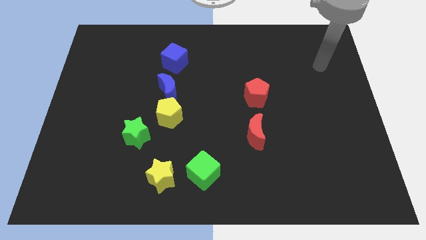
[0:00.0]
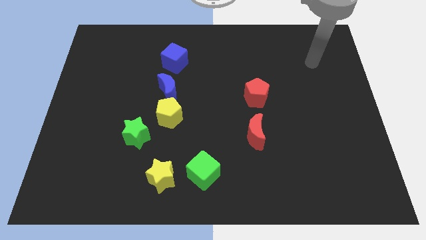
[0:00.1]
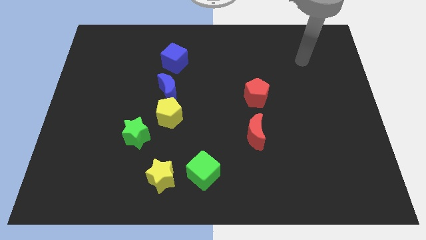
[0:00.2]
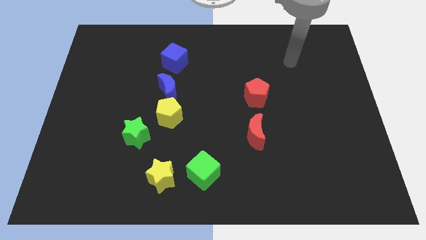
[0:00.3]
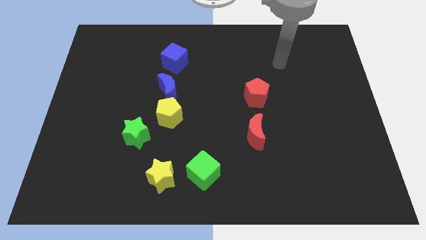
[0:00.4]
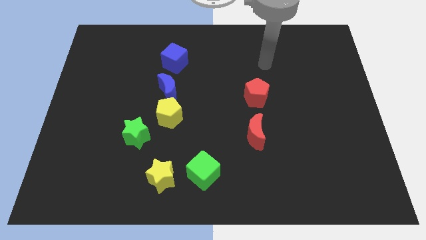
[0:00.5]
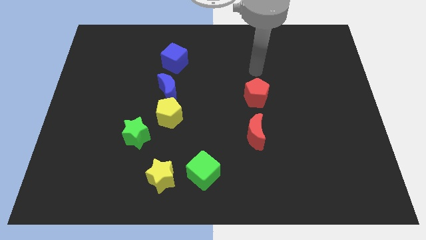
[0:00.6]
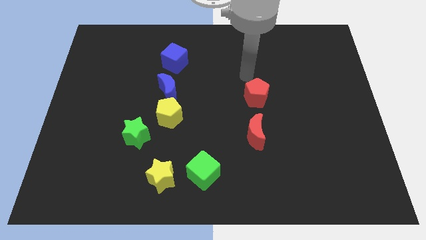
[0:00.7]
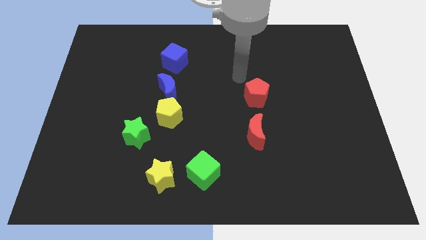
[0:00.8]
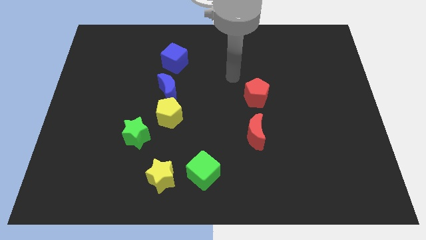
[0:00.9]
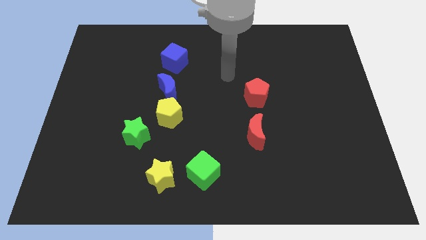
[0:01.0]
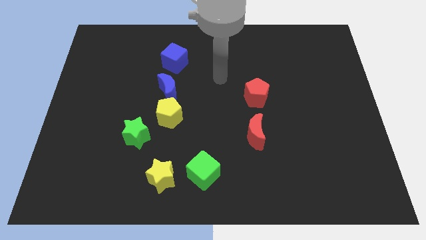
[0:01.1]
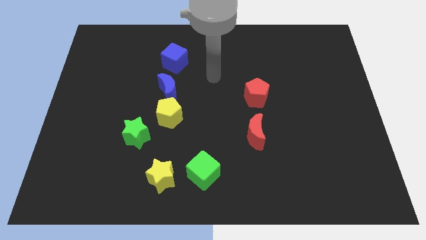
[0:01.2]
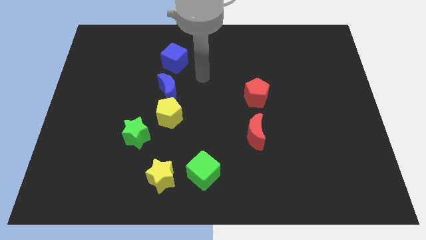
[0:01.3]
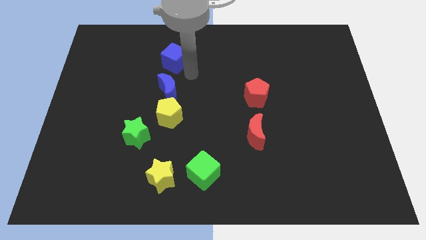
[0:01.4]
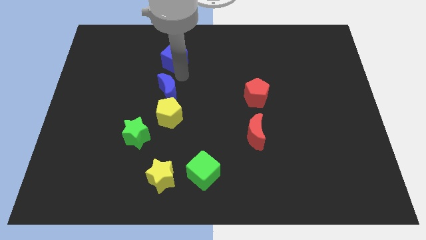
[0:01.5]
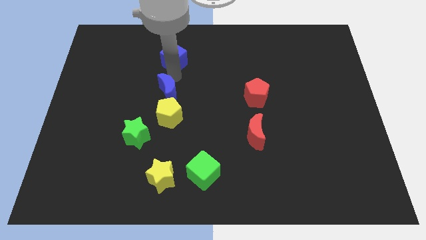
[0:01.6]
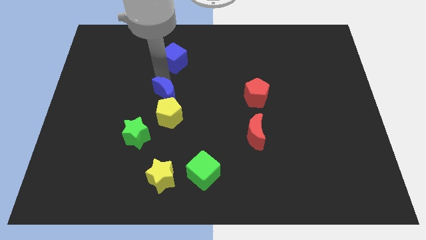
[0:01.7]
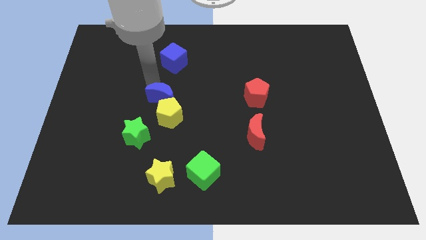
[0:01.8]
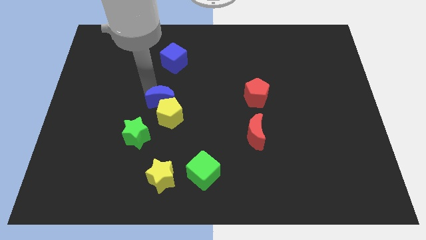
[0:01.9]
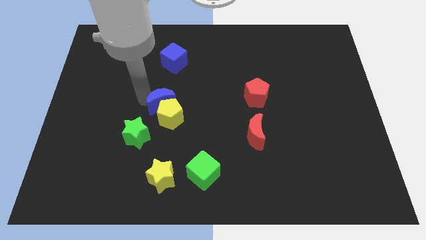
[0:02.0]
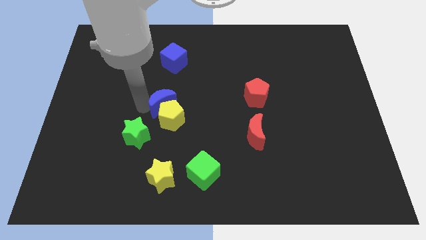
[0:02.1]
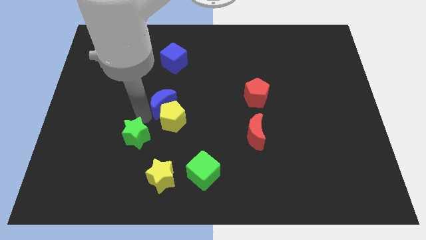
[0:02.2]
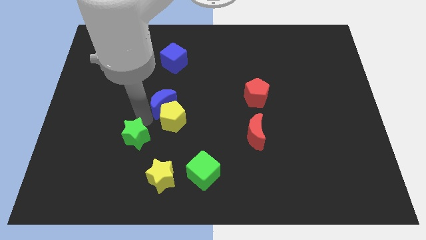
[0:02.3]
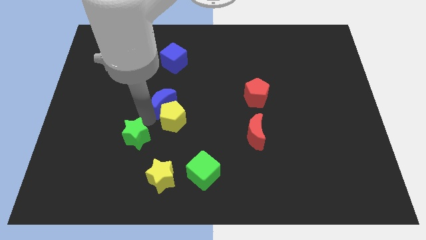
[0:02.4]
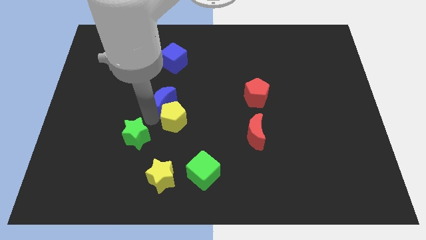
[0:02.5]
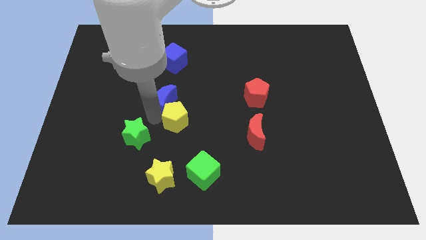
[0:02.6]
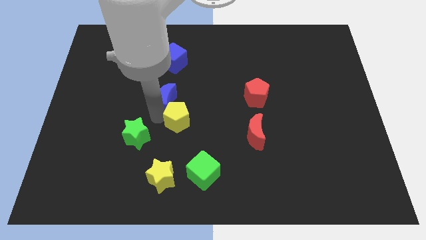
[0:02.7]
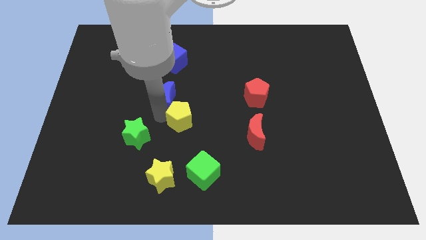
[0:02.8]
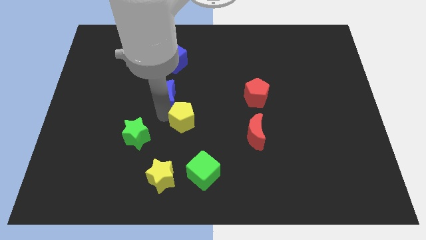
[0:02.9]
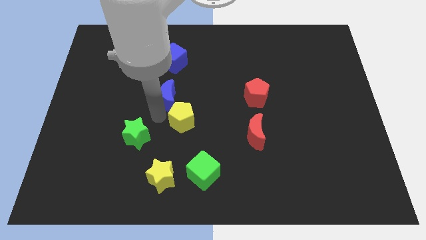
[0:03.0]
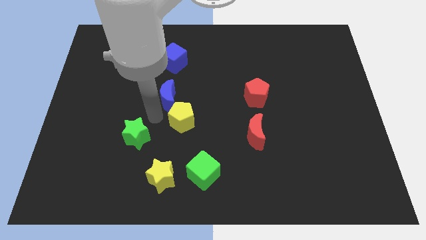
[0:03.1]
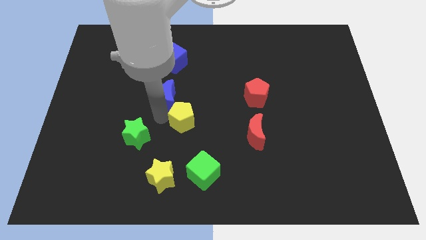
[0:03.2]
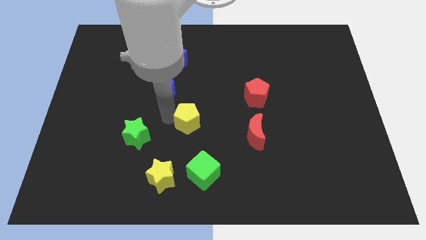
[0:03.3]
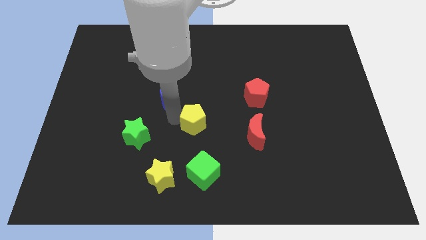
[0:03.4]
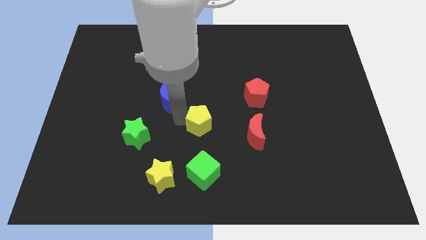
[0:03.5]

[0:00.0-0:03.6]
pull the yellow pentagon apart from the blue moon and green star

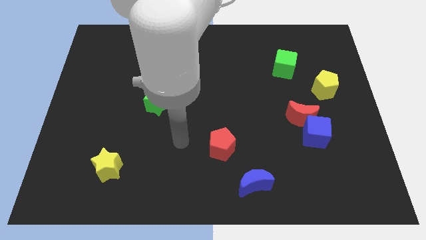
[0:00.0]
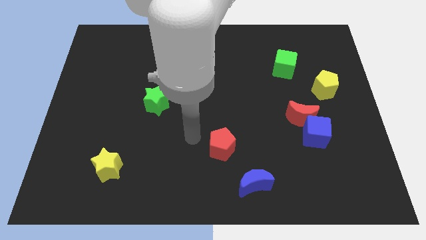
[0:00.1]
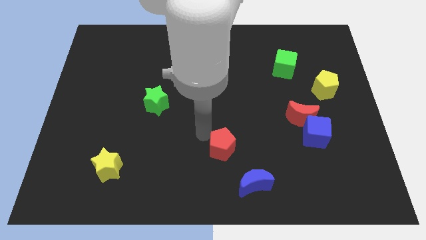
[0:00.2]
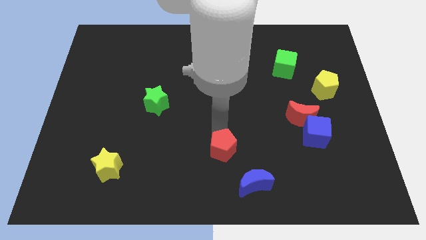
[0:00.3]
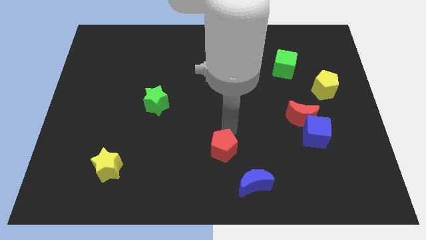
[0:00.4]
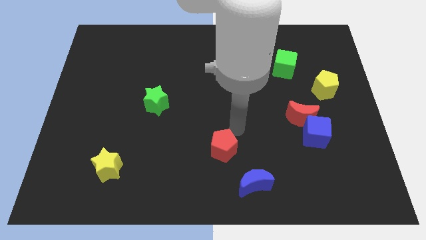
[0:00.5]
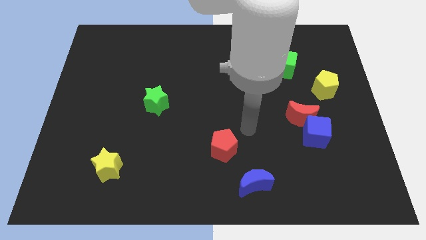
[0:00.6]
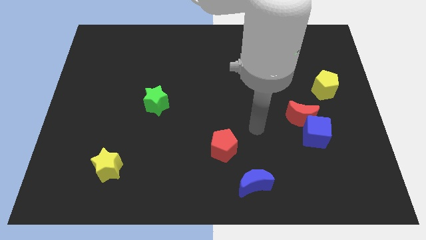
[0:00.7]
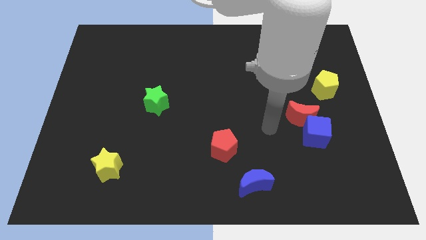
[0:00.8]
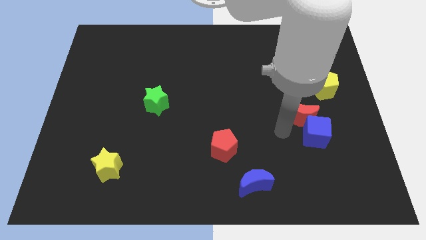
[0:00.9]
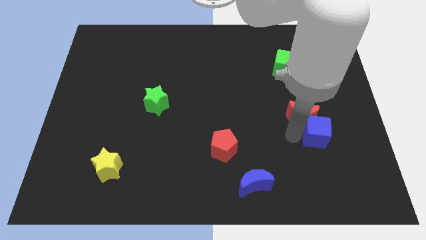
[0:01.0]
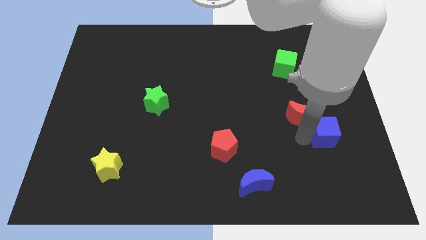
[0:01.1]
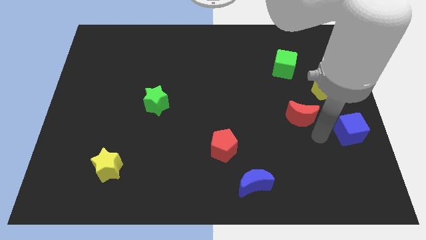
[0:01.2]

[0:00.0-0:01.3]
move the red moon away from the blue cube

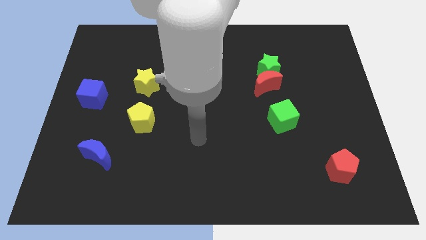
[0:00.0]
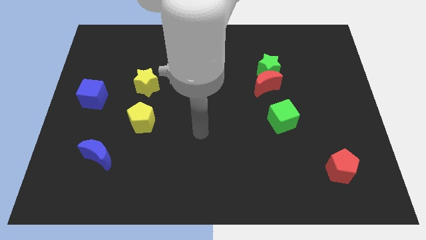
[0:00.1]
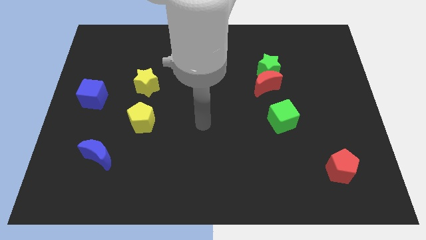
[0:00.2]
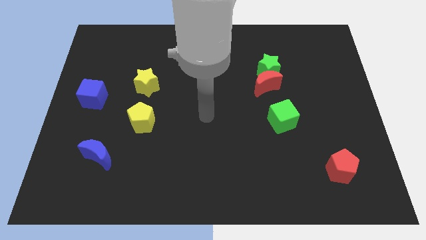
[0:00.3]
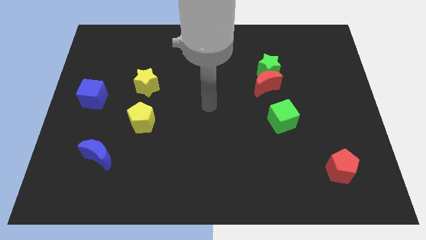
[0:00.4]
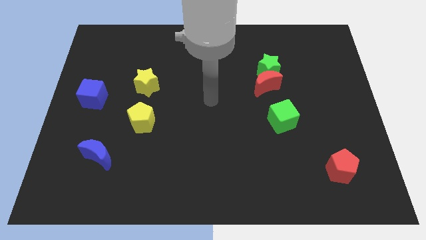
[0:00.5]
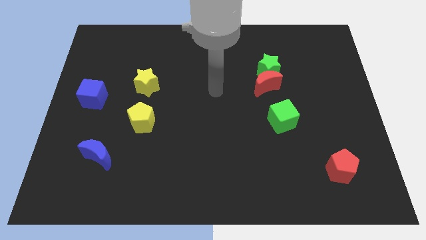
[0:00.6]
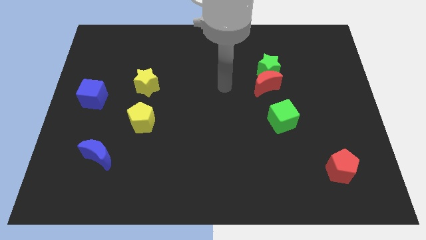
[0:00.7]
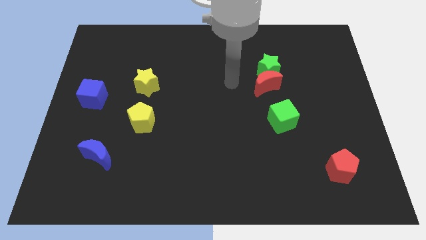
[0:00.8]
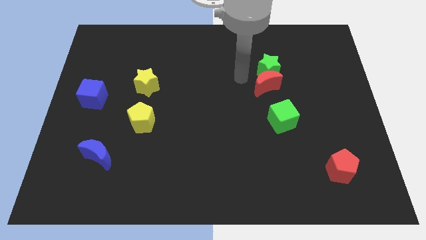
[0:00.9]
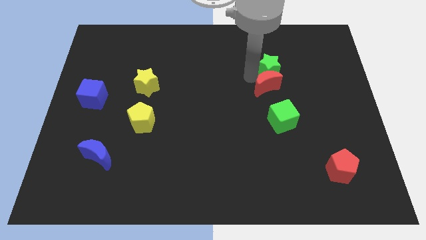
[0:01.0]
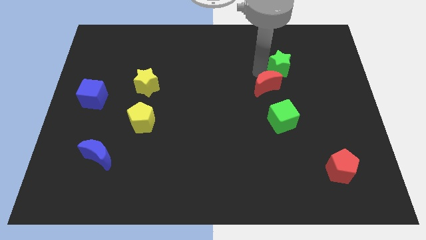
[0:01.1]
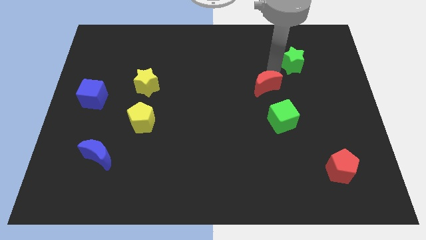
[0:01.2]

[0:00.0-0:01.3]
pull the red moon apart from the green star

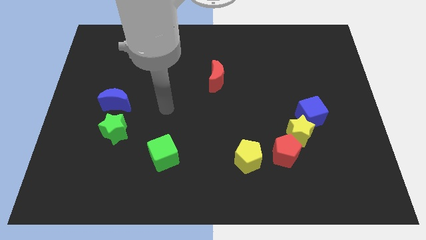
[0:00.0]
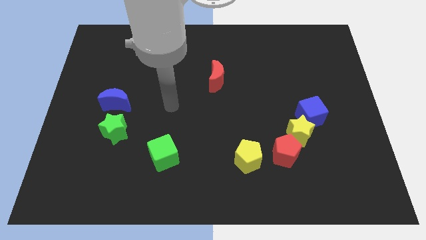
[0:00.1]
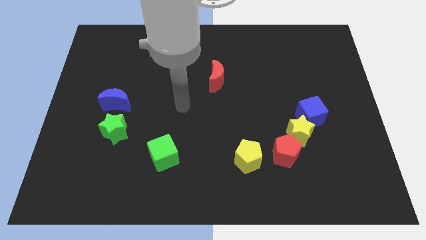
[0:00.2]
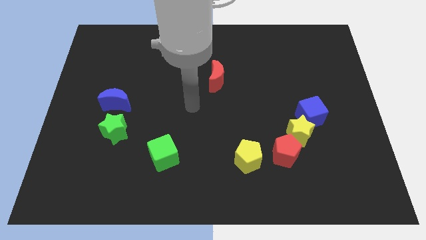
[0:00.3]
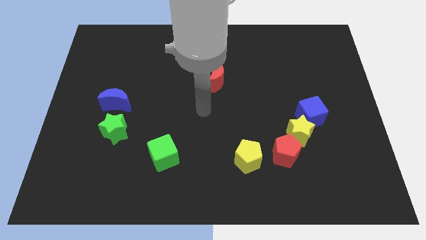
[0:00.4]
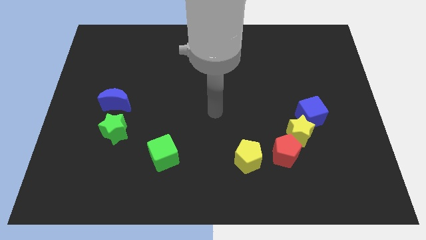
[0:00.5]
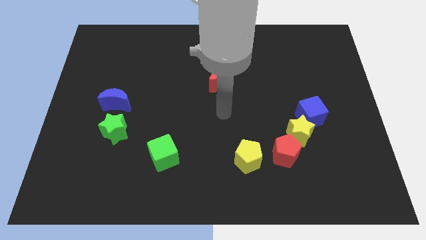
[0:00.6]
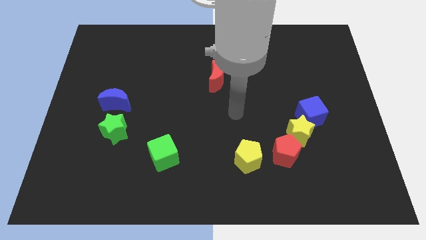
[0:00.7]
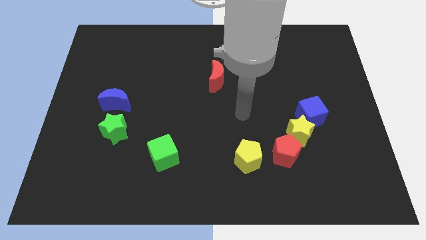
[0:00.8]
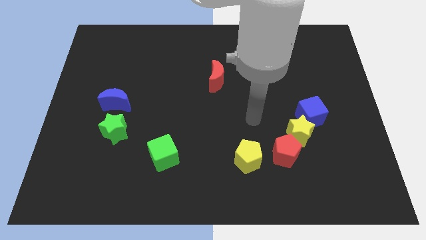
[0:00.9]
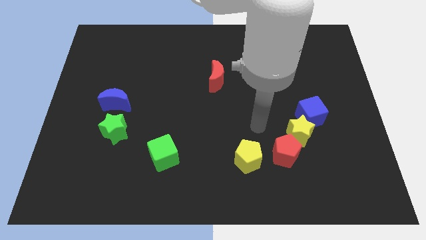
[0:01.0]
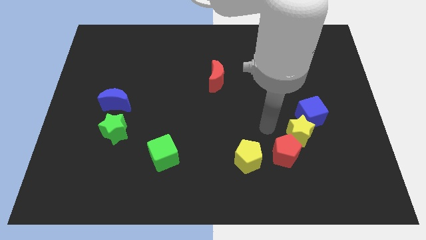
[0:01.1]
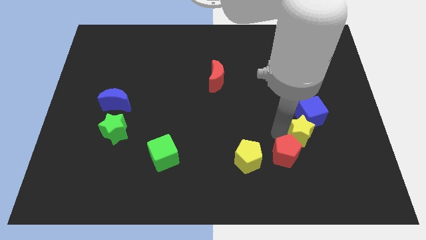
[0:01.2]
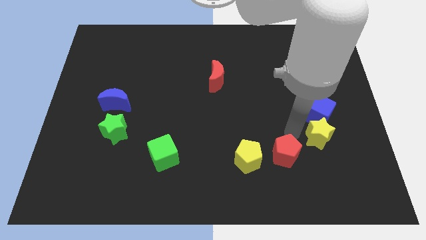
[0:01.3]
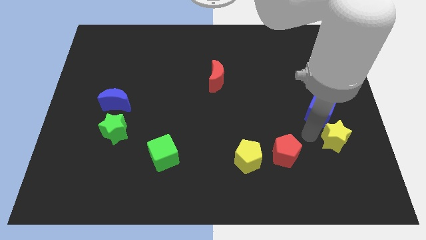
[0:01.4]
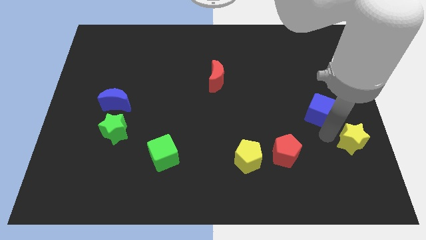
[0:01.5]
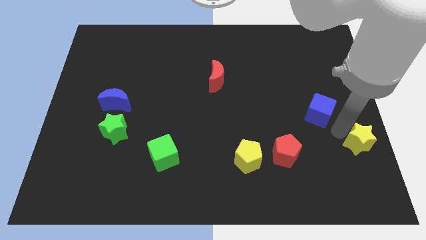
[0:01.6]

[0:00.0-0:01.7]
pull the blue cube apart from the yellow star

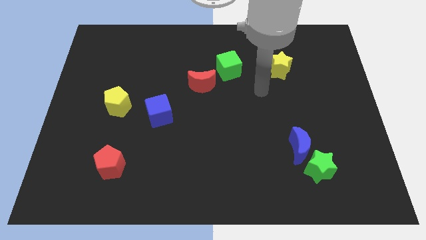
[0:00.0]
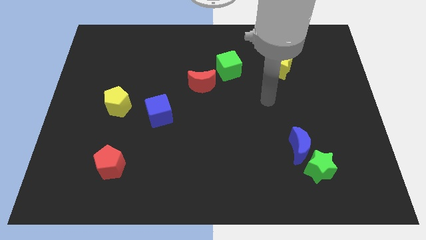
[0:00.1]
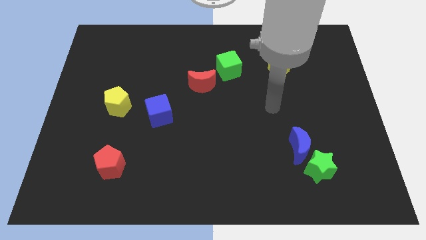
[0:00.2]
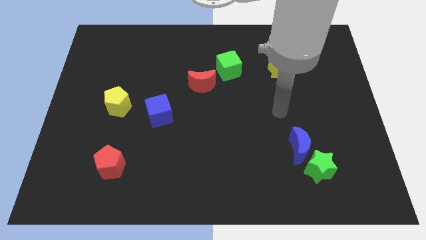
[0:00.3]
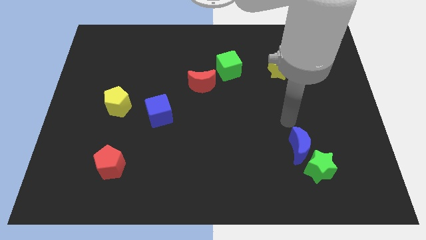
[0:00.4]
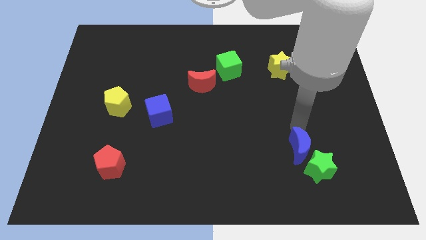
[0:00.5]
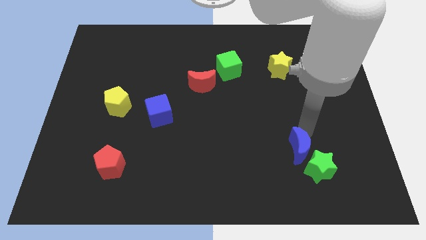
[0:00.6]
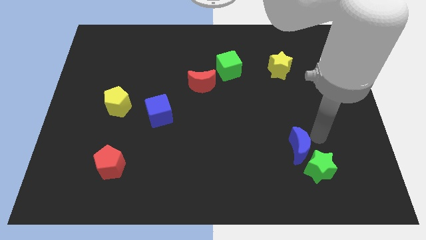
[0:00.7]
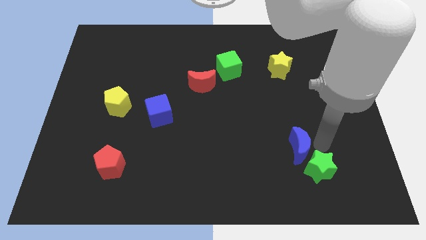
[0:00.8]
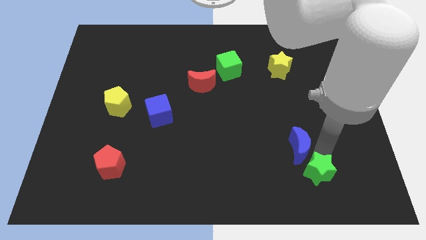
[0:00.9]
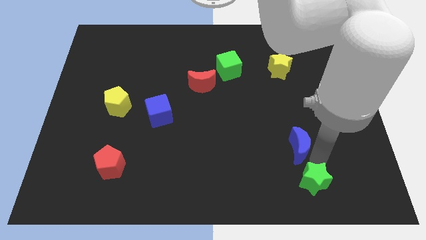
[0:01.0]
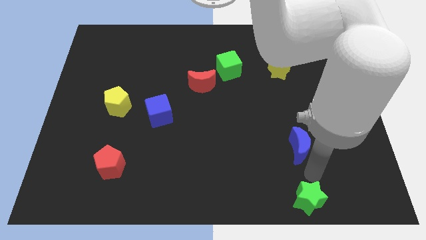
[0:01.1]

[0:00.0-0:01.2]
pull the blue moon apart from the green star

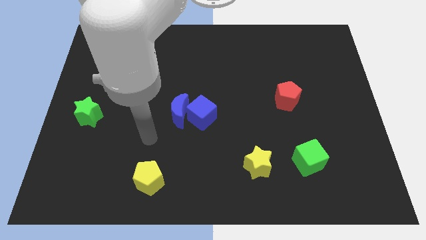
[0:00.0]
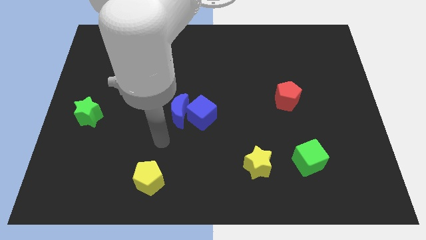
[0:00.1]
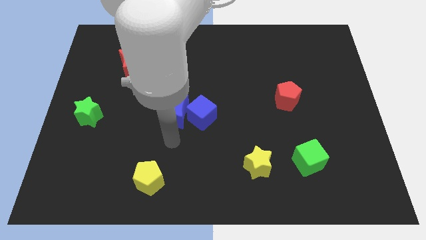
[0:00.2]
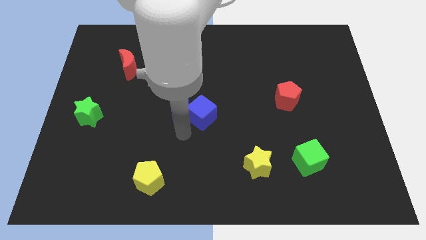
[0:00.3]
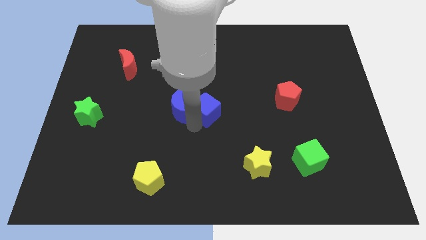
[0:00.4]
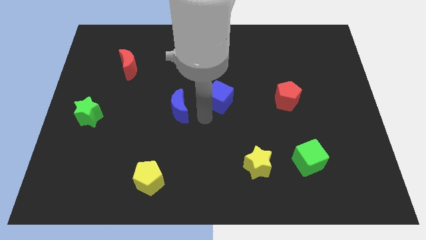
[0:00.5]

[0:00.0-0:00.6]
pull the blue moon apart from the blue cube
